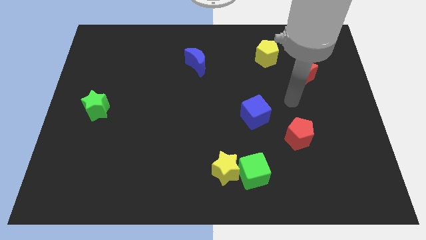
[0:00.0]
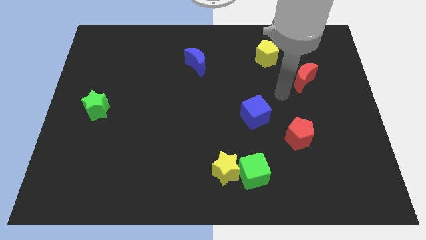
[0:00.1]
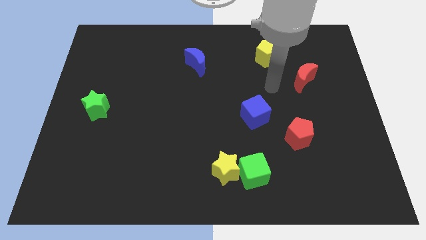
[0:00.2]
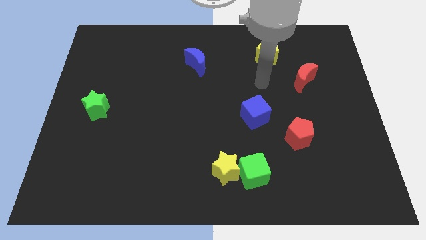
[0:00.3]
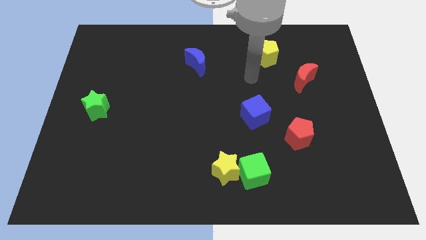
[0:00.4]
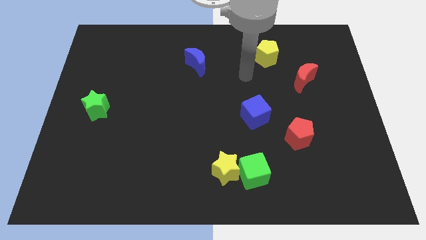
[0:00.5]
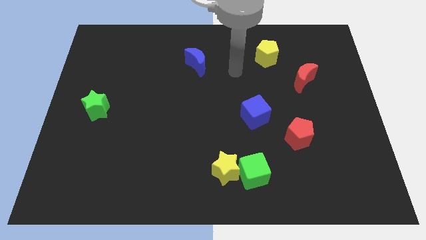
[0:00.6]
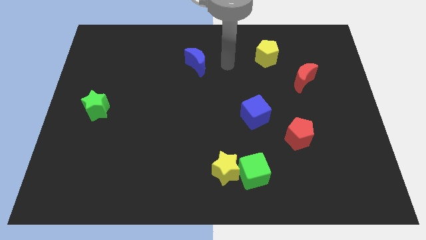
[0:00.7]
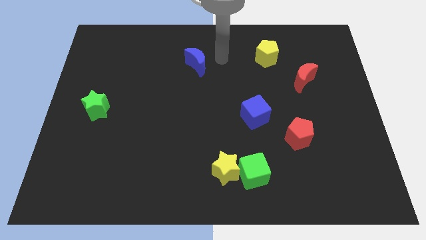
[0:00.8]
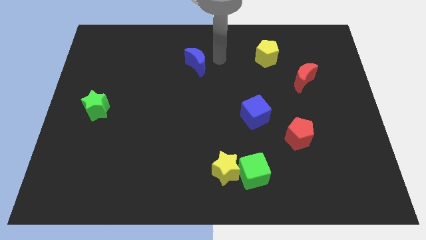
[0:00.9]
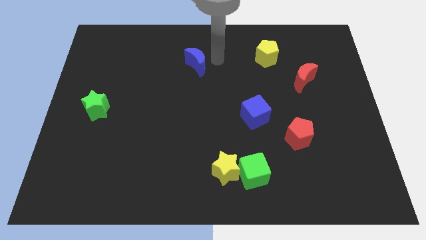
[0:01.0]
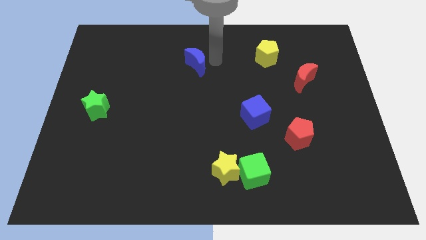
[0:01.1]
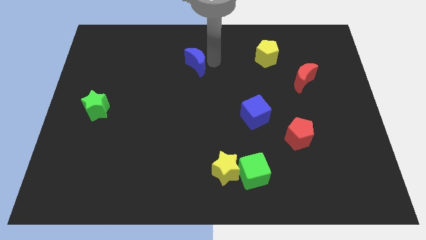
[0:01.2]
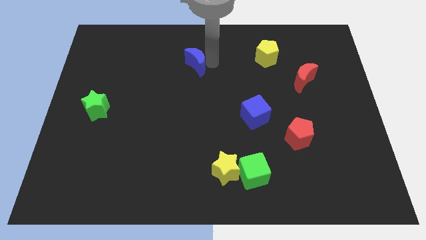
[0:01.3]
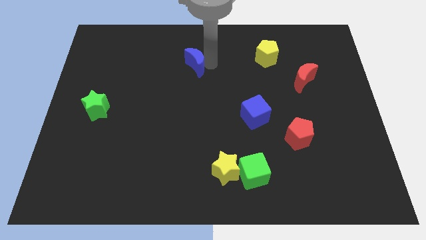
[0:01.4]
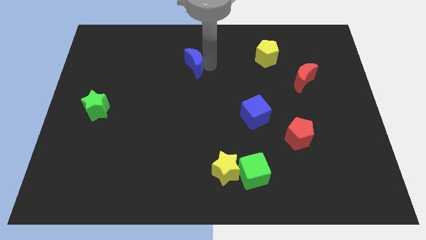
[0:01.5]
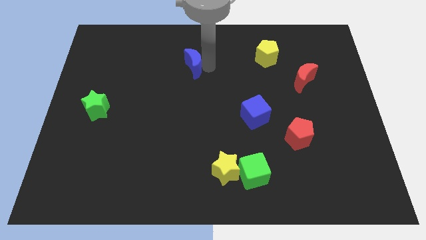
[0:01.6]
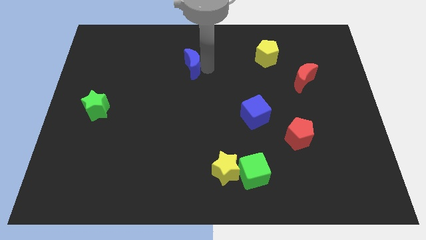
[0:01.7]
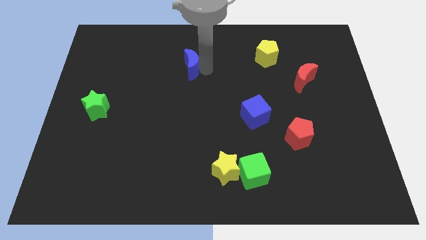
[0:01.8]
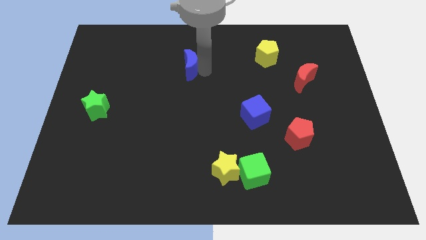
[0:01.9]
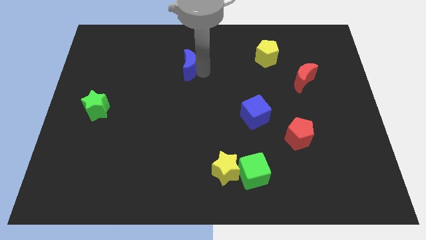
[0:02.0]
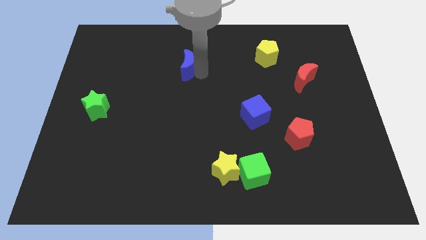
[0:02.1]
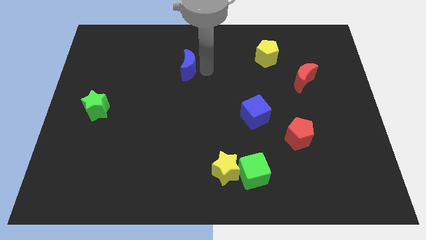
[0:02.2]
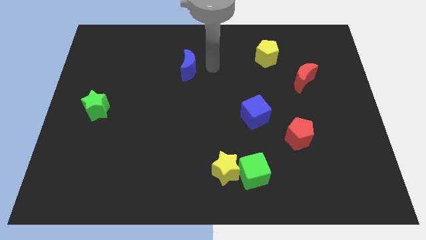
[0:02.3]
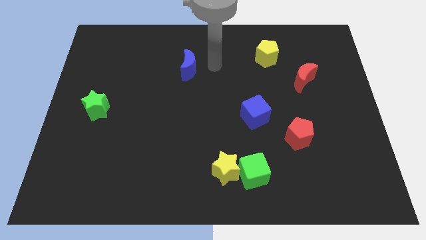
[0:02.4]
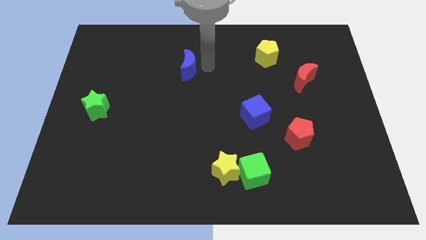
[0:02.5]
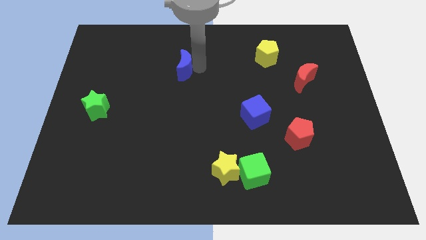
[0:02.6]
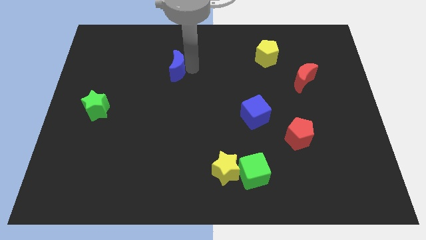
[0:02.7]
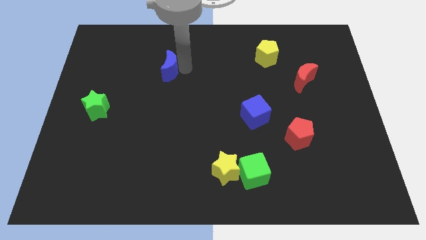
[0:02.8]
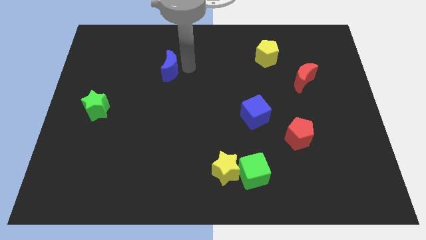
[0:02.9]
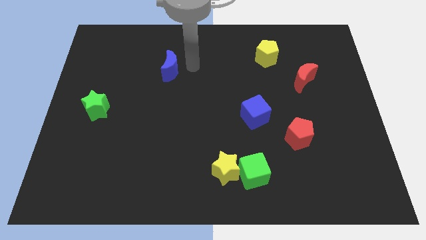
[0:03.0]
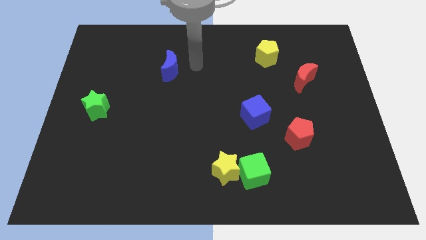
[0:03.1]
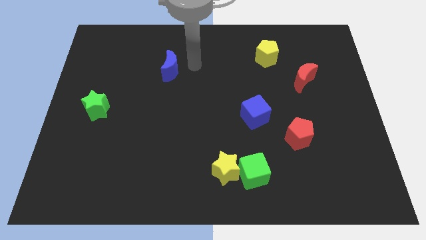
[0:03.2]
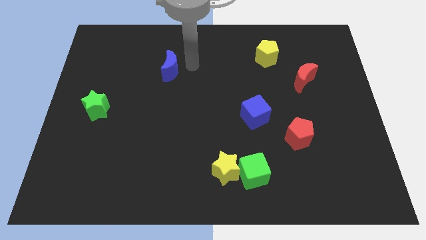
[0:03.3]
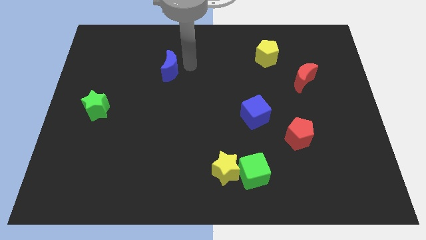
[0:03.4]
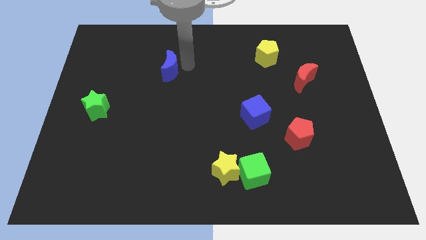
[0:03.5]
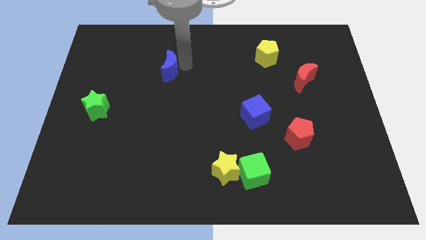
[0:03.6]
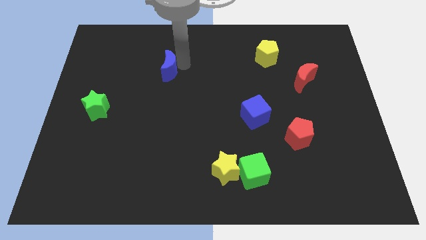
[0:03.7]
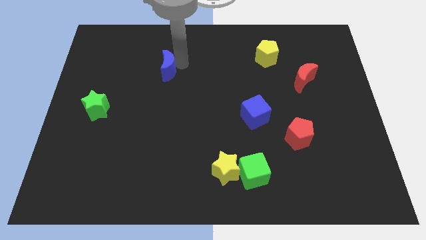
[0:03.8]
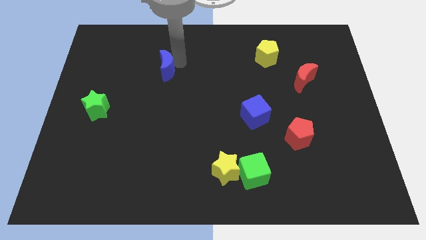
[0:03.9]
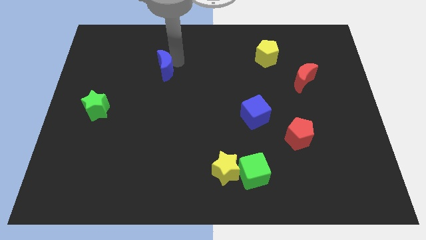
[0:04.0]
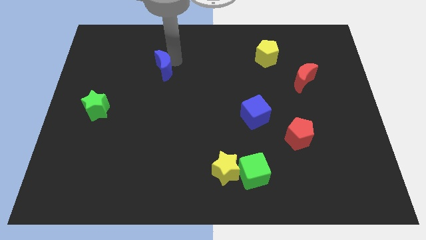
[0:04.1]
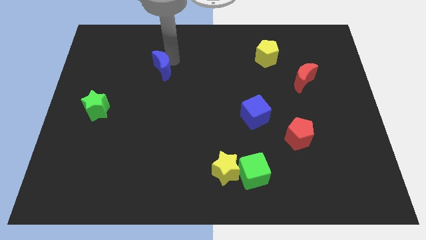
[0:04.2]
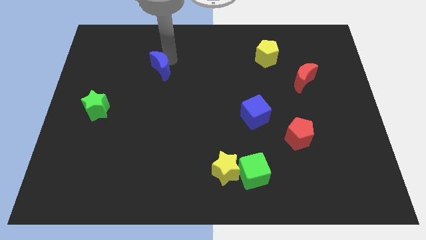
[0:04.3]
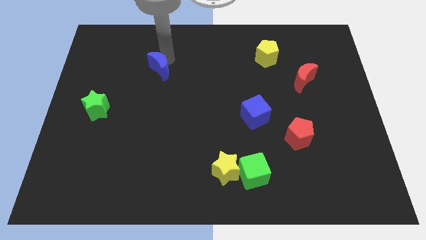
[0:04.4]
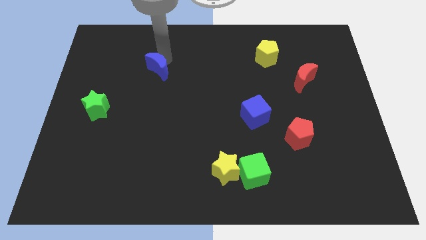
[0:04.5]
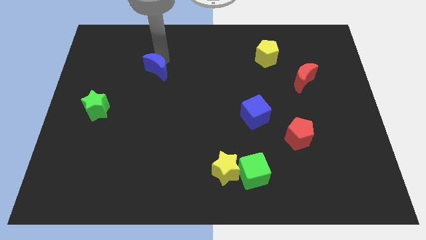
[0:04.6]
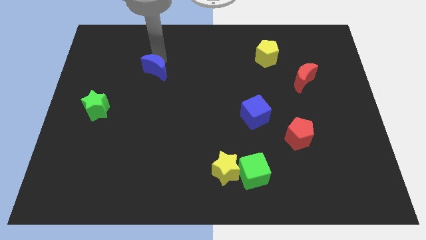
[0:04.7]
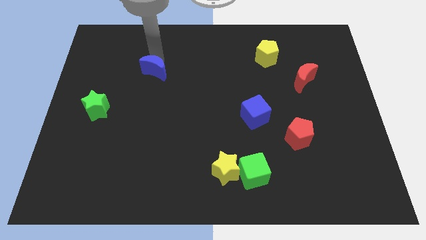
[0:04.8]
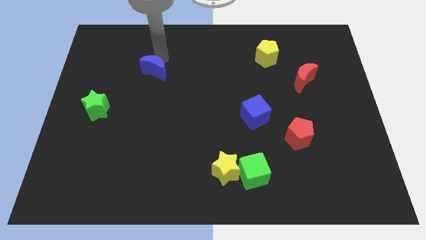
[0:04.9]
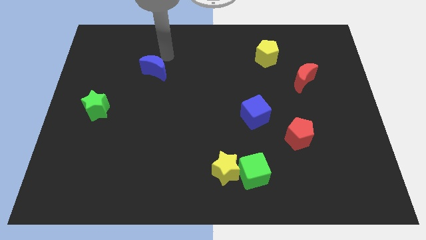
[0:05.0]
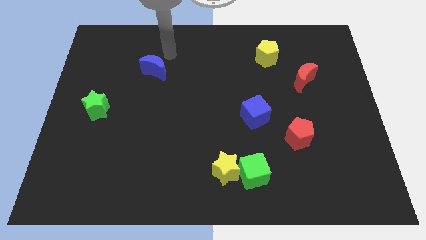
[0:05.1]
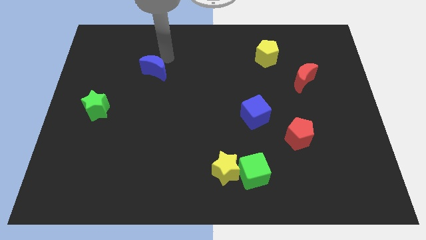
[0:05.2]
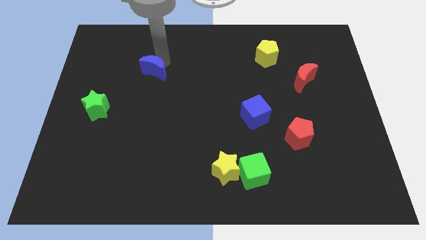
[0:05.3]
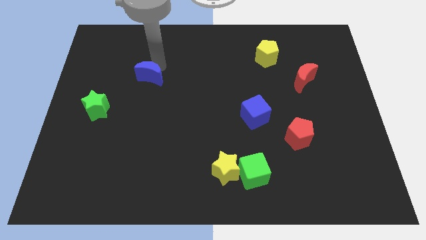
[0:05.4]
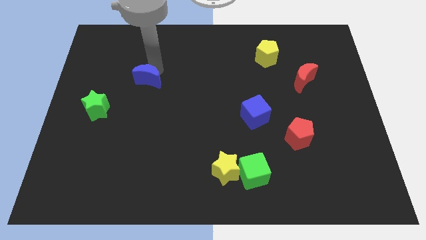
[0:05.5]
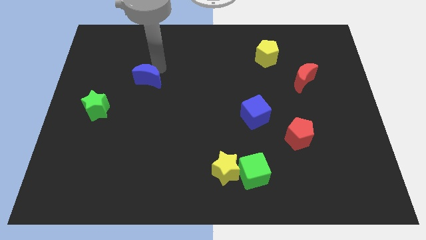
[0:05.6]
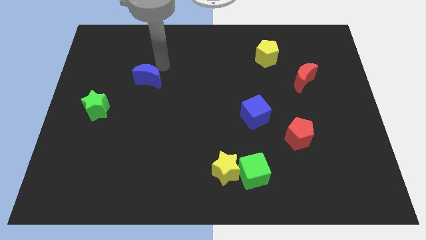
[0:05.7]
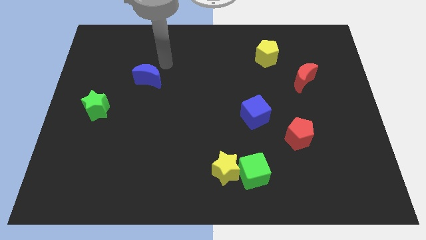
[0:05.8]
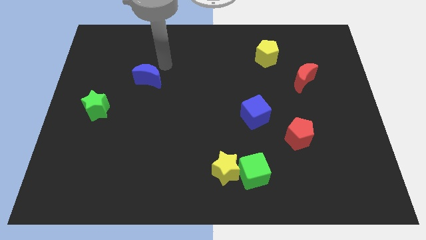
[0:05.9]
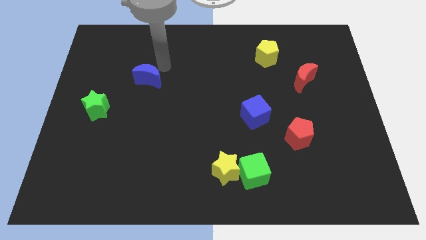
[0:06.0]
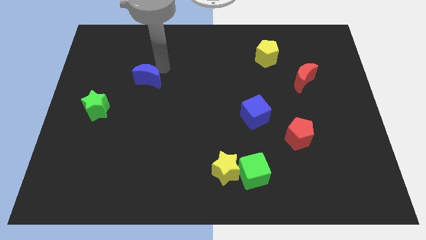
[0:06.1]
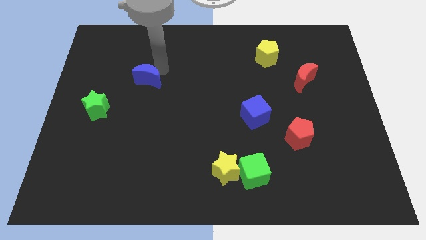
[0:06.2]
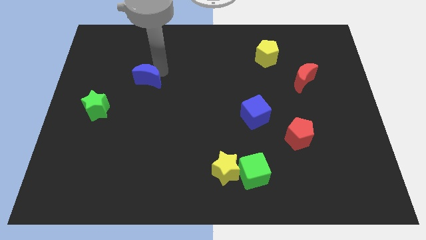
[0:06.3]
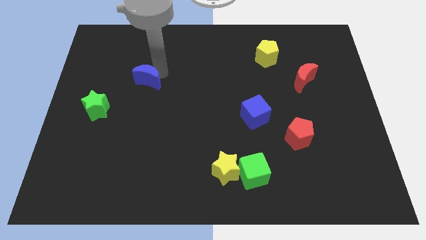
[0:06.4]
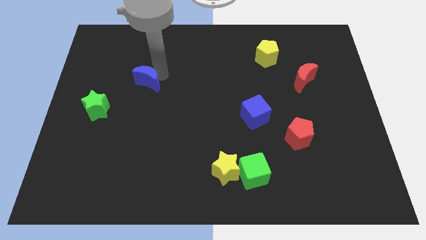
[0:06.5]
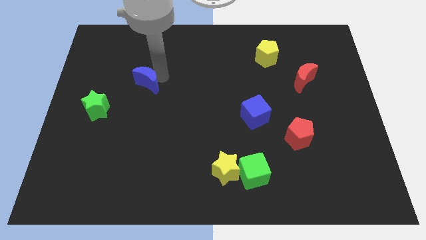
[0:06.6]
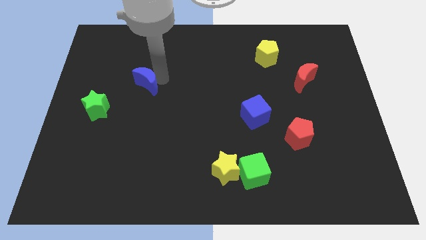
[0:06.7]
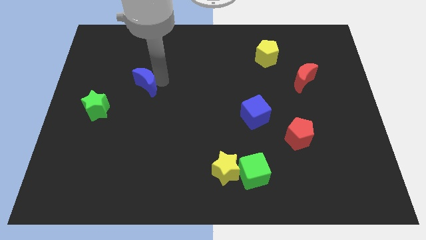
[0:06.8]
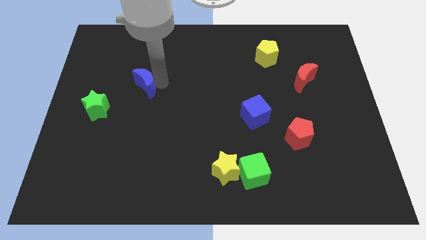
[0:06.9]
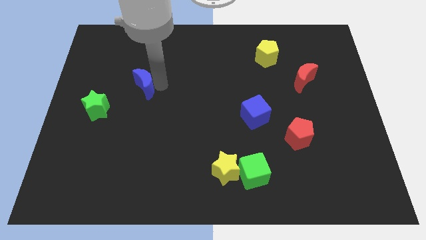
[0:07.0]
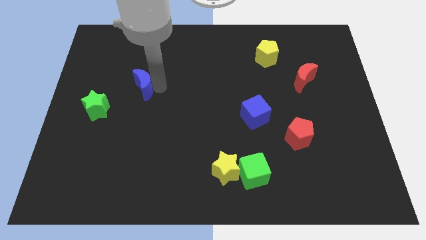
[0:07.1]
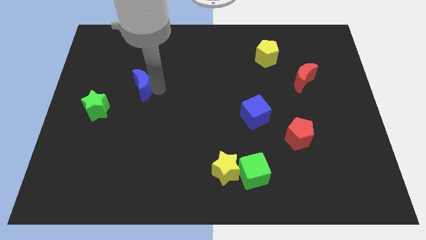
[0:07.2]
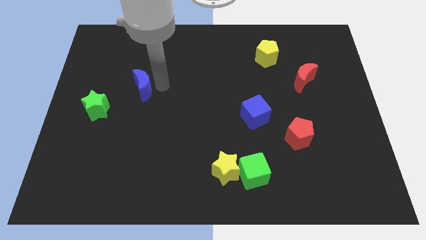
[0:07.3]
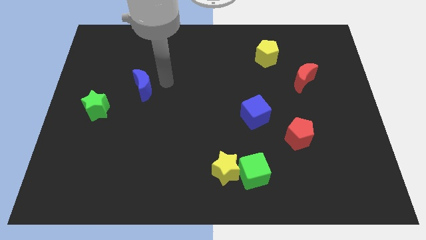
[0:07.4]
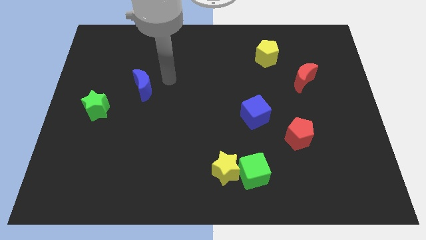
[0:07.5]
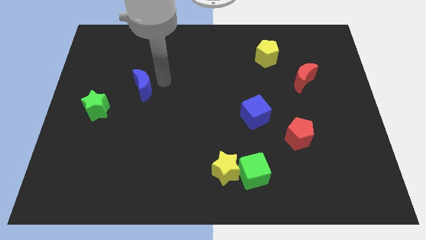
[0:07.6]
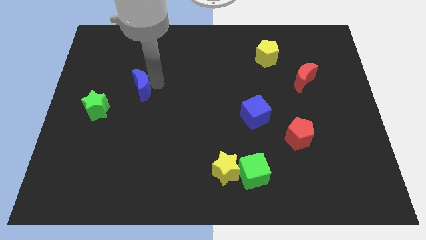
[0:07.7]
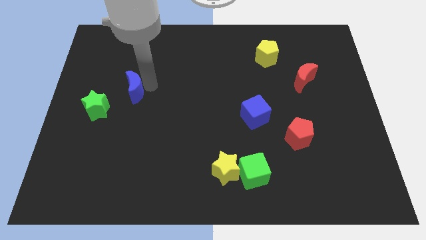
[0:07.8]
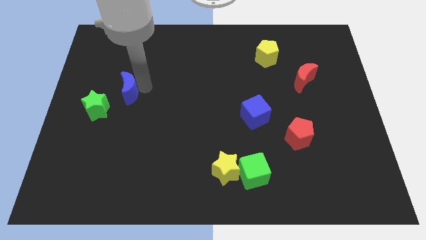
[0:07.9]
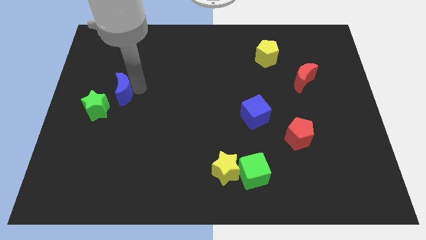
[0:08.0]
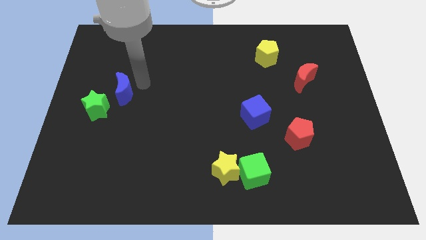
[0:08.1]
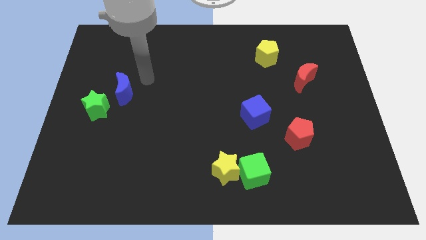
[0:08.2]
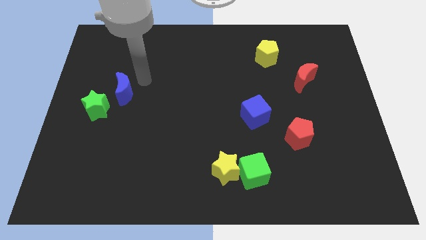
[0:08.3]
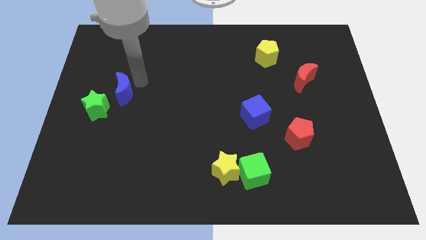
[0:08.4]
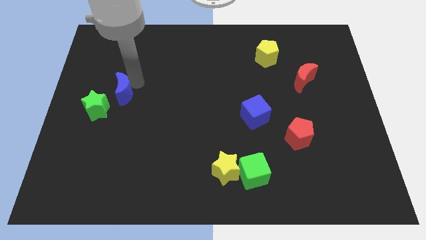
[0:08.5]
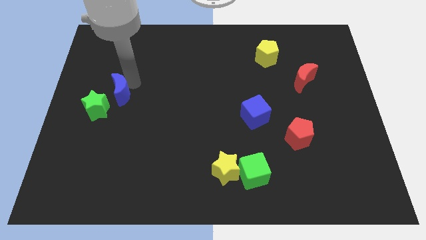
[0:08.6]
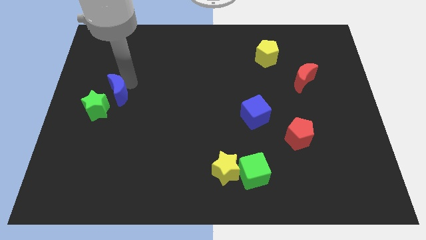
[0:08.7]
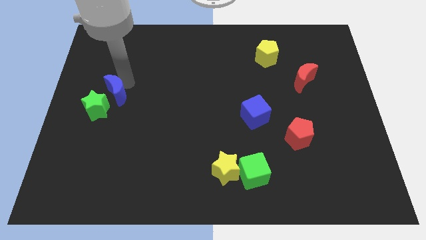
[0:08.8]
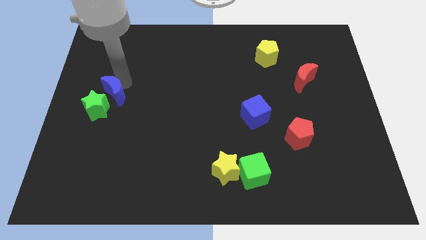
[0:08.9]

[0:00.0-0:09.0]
put the blue moon close to the green star
